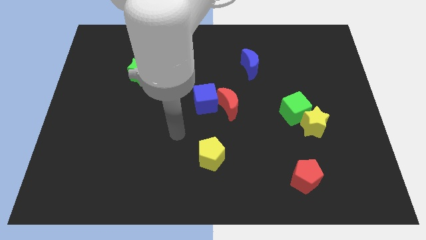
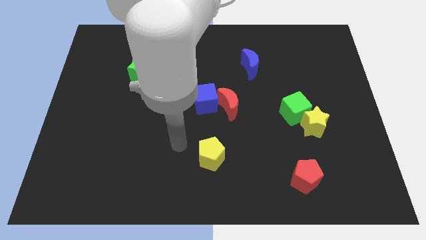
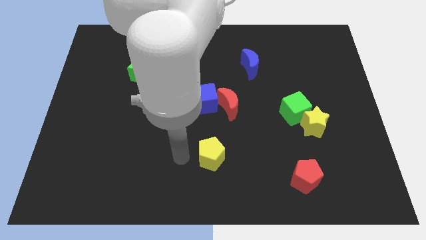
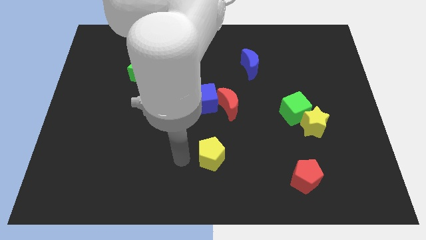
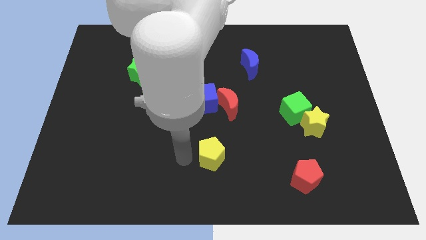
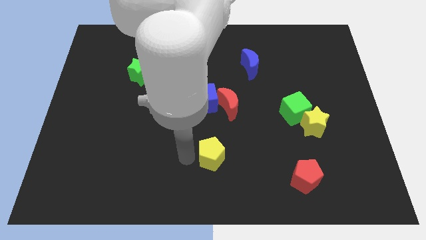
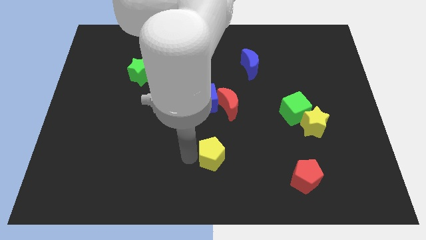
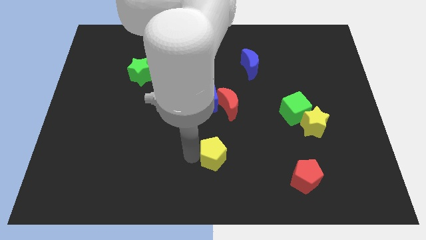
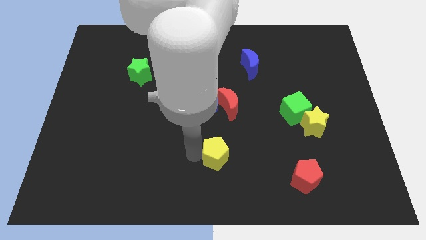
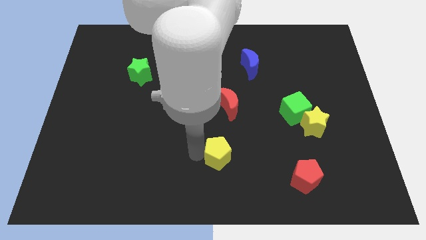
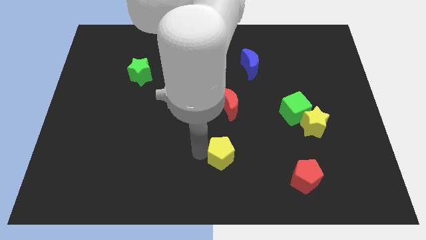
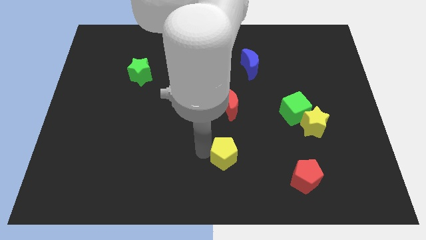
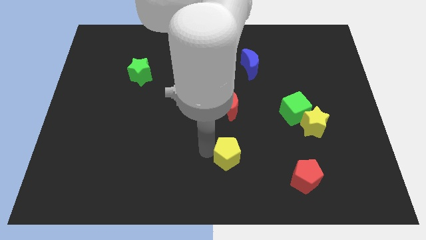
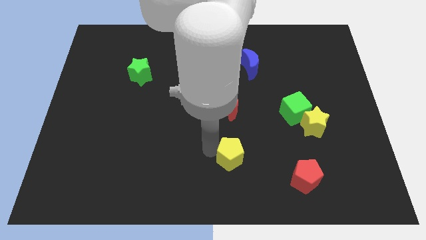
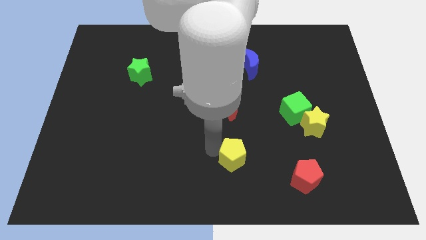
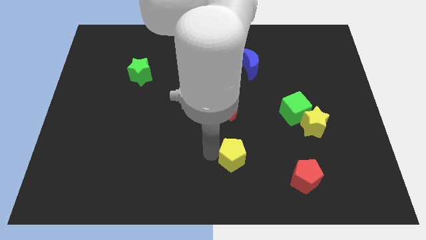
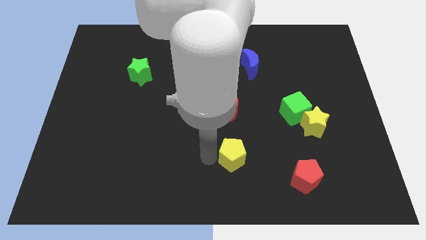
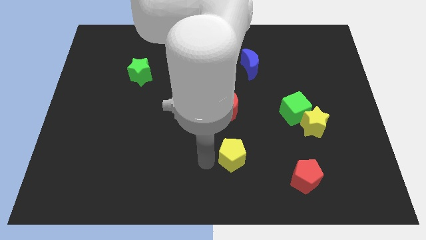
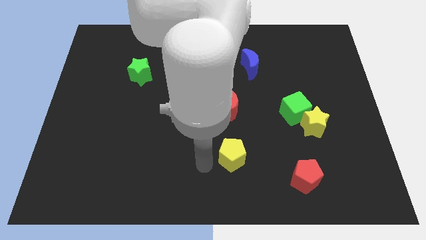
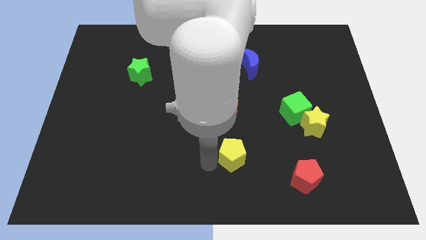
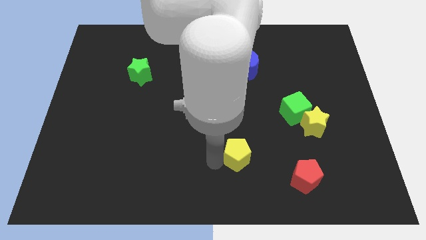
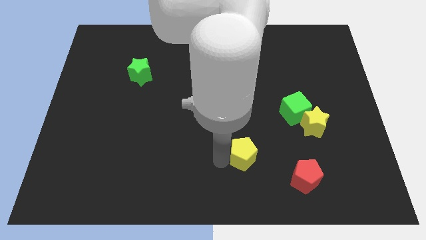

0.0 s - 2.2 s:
move the yellow pentagon a little to the right

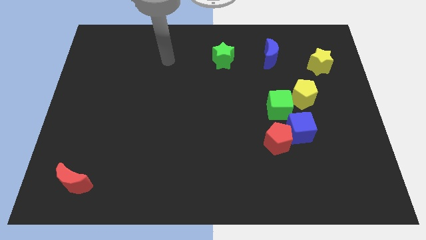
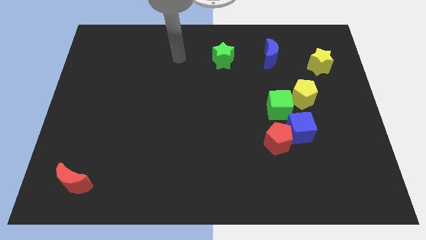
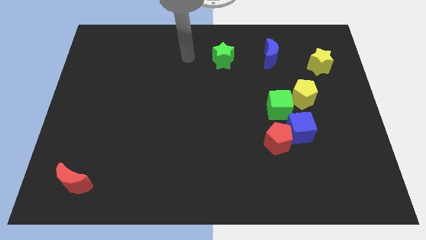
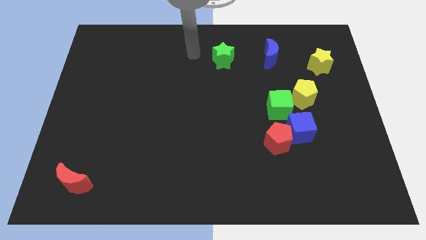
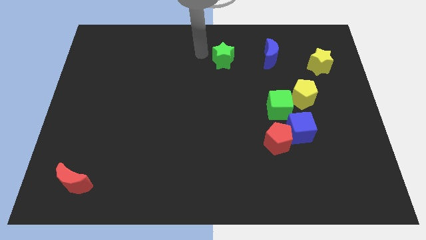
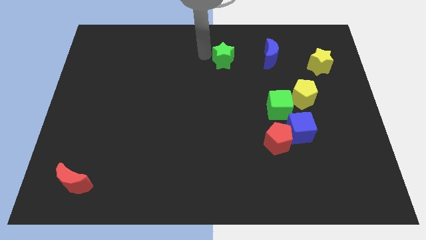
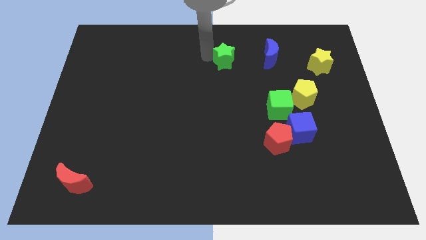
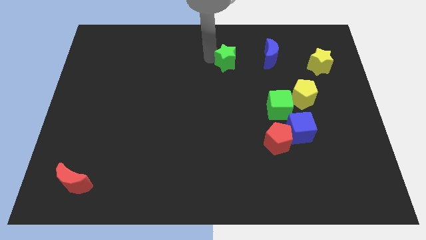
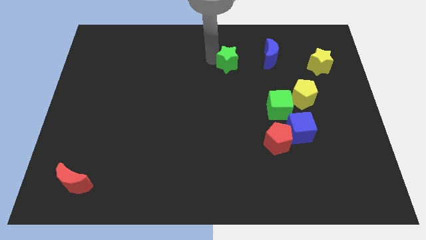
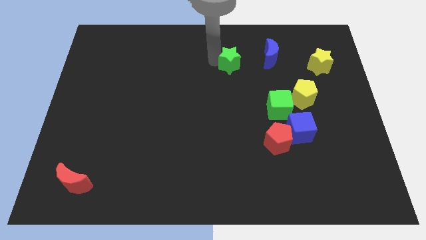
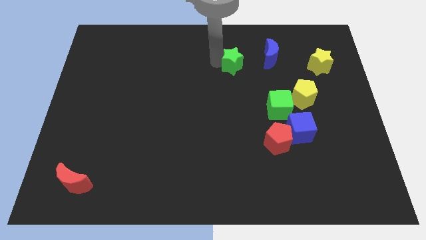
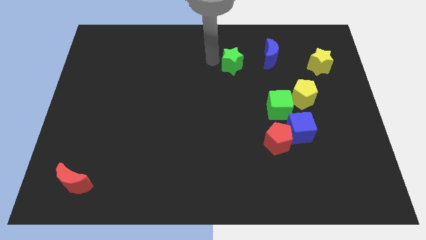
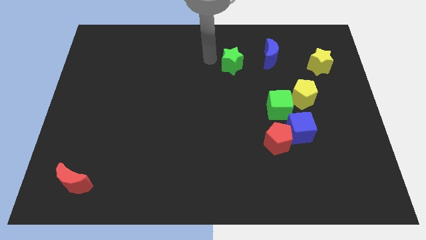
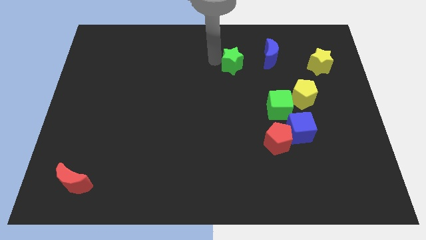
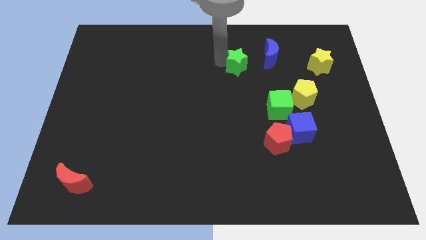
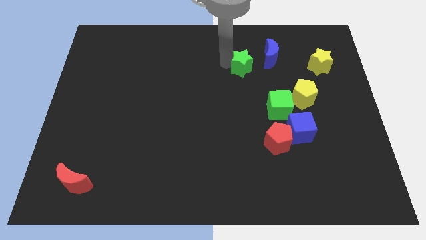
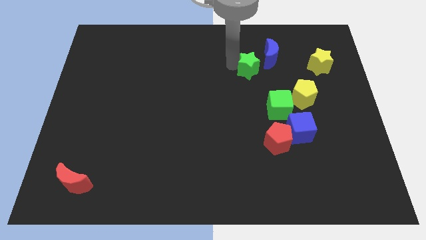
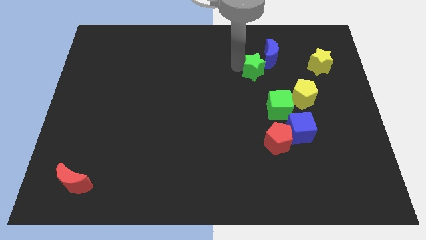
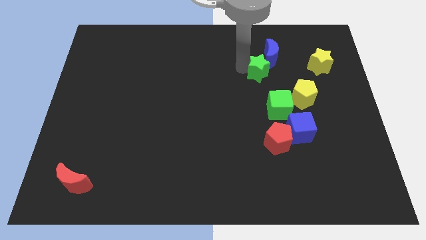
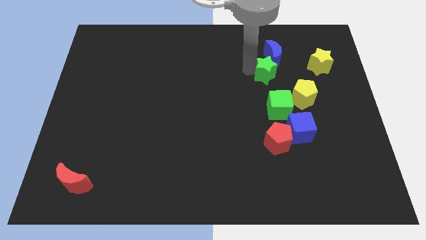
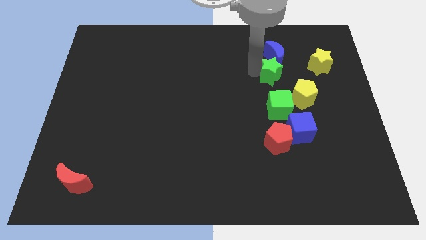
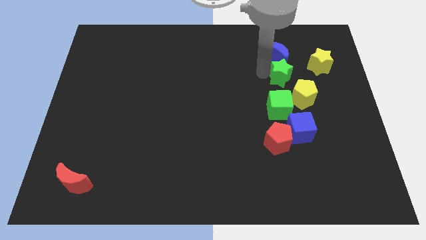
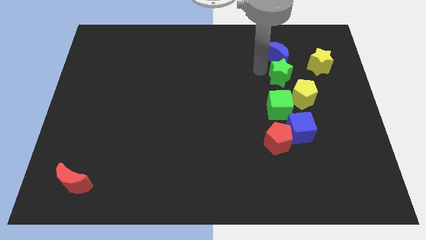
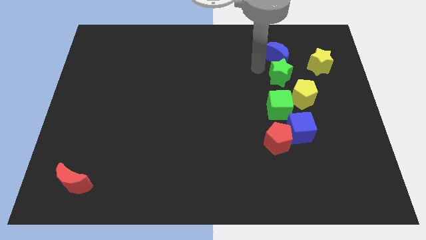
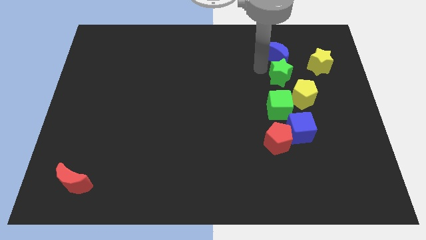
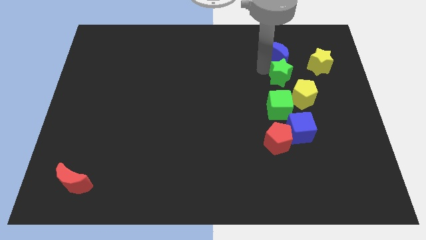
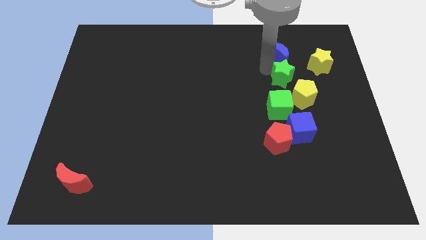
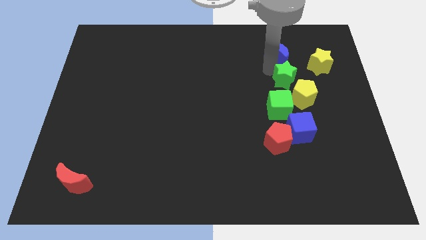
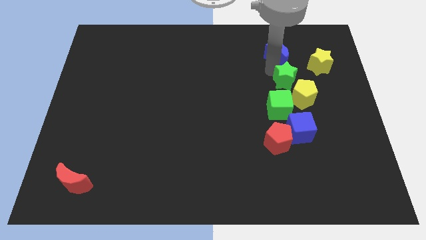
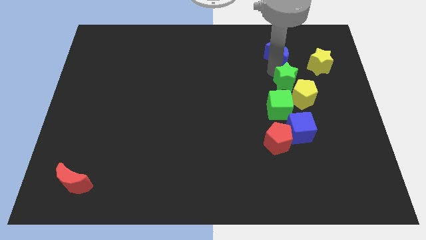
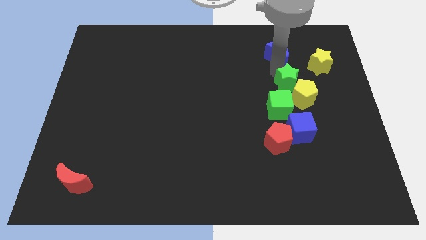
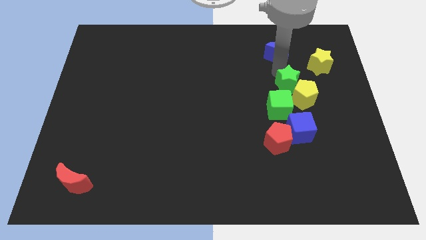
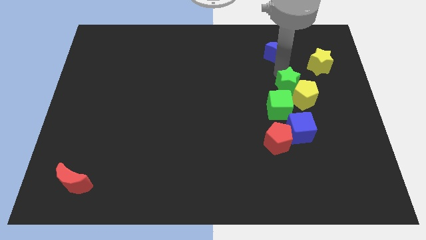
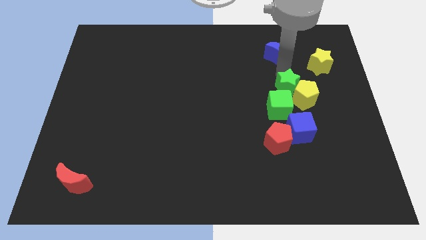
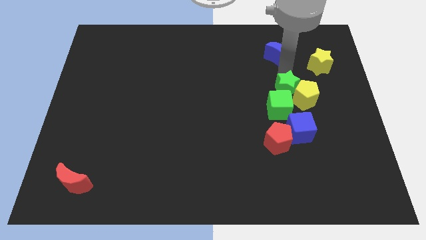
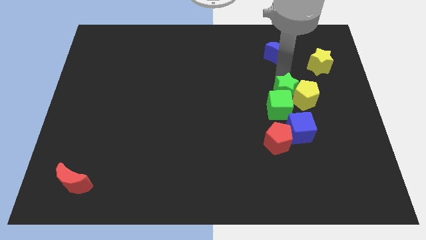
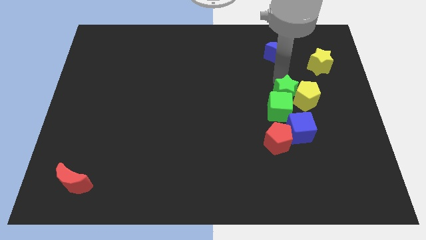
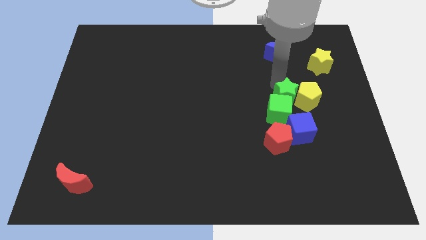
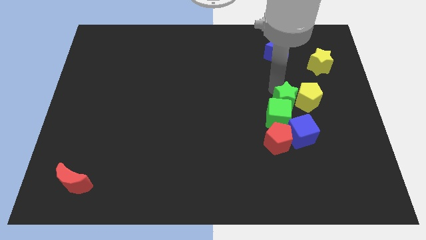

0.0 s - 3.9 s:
slide the green star downwards and then to the right

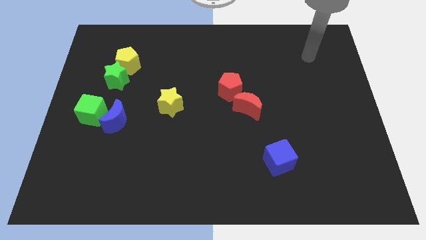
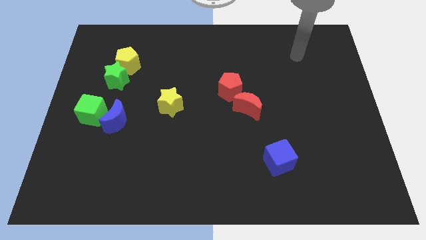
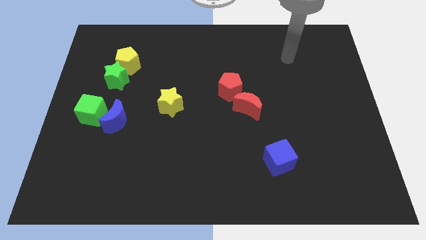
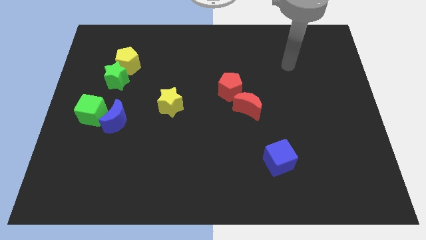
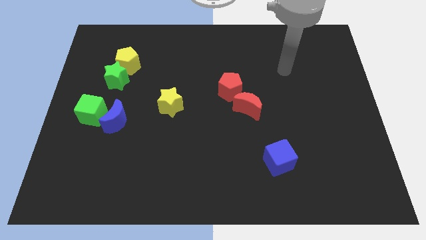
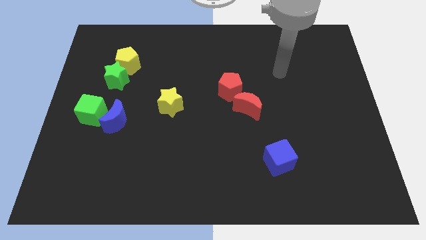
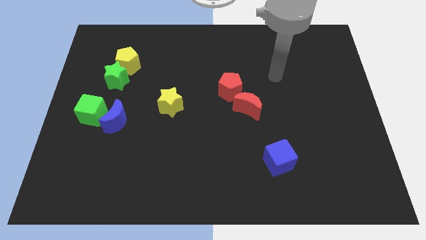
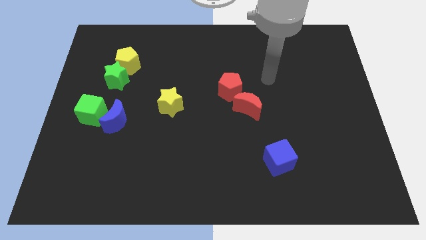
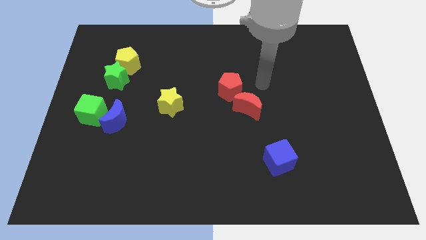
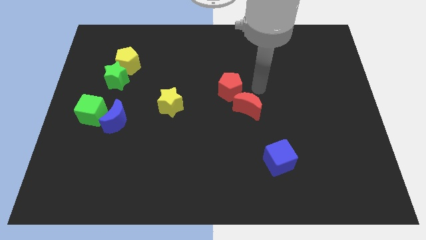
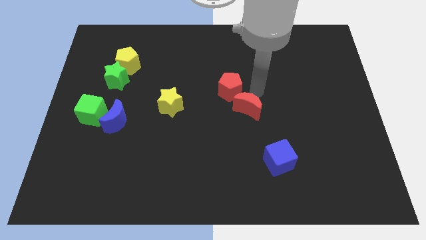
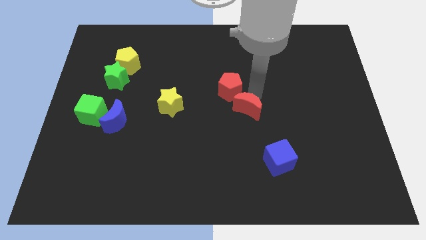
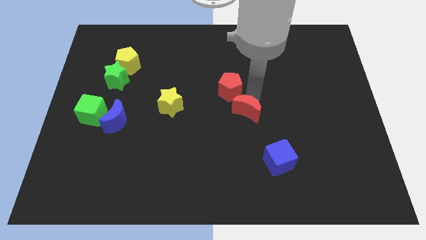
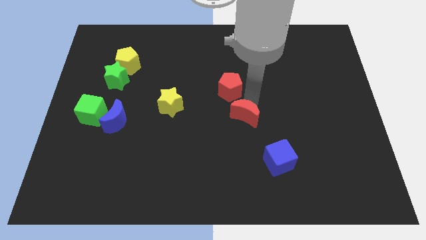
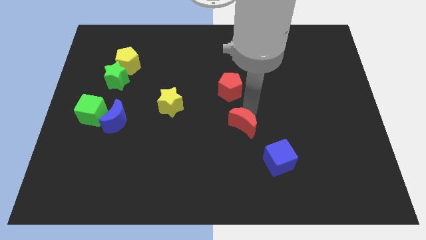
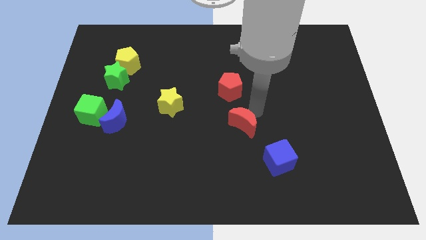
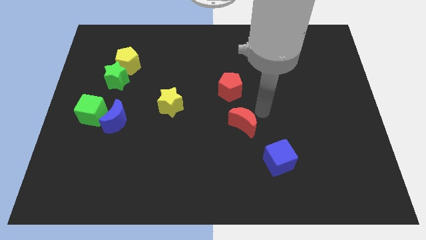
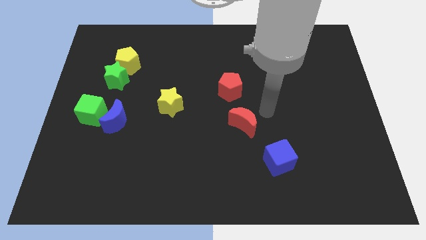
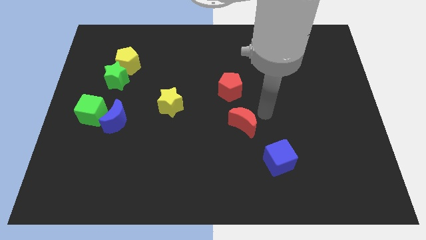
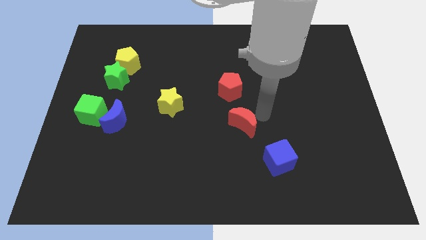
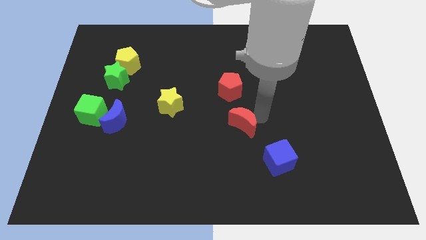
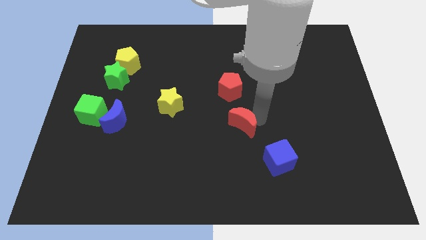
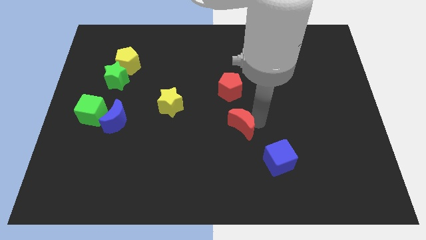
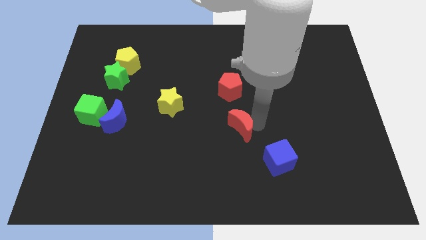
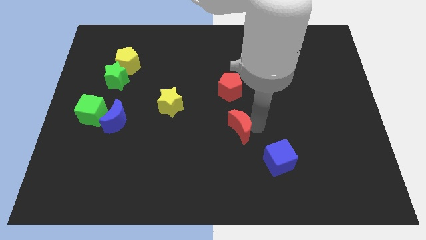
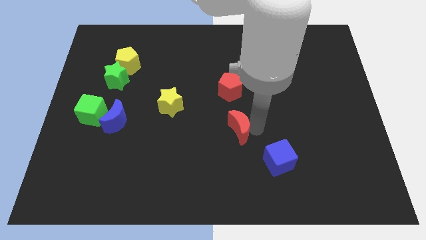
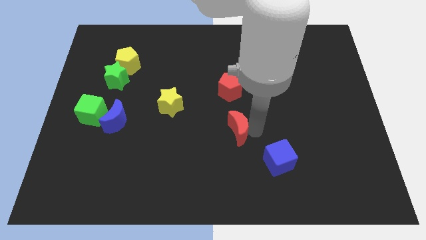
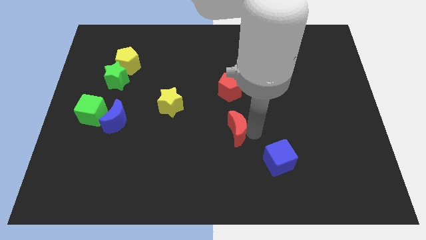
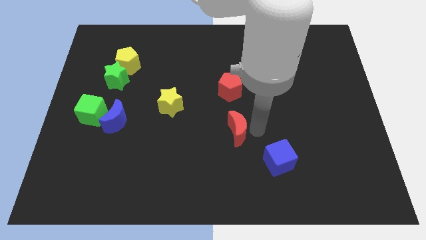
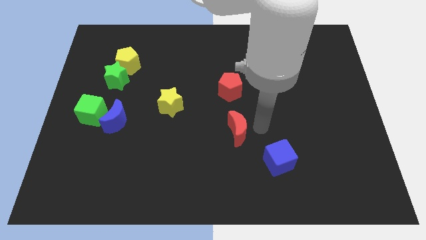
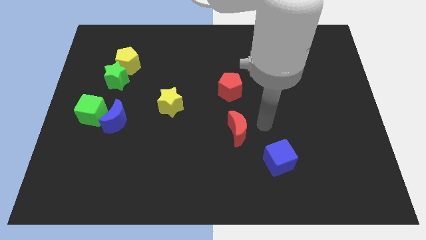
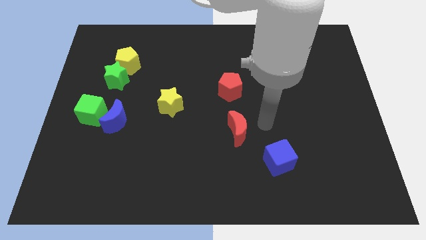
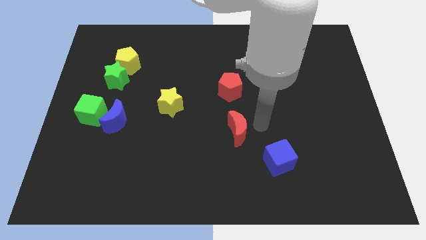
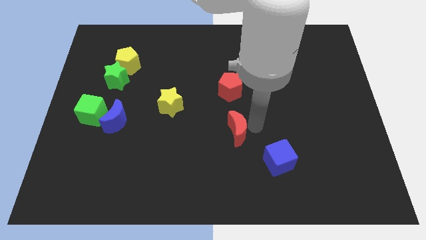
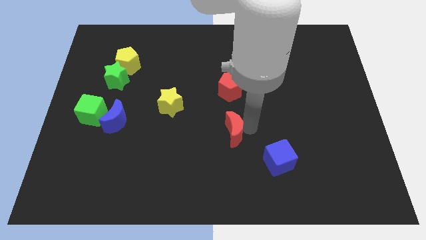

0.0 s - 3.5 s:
slightly push the red moon down and then to the left
